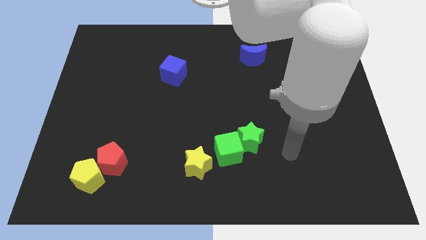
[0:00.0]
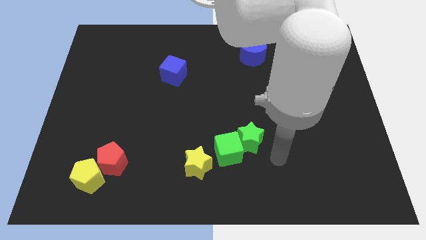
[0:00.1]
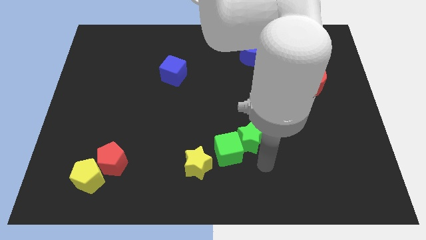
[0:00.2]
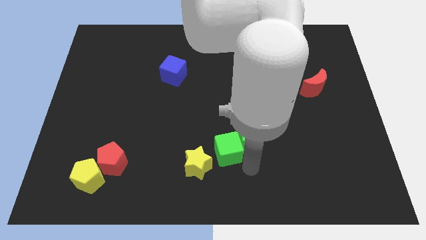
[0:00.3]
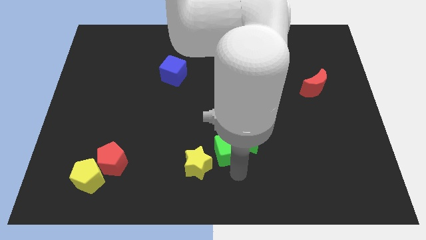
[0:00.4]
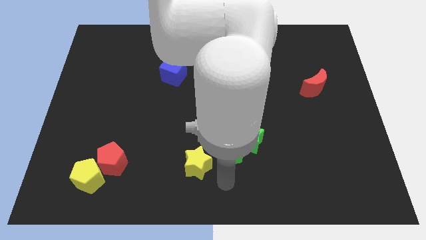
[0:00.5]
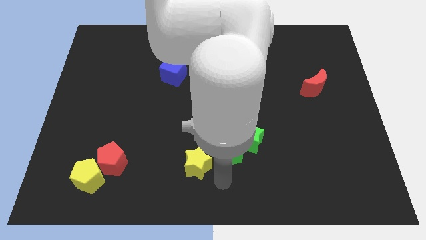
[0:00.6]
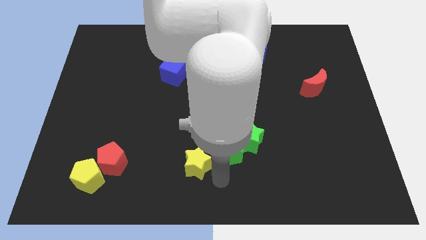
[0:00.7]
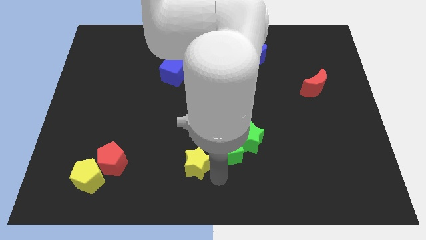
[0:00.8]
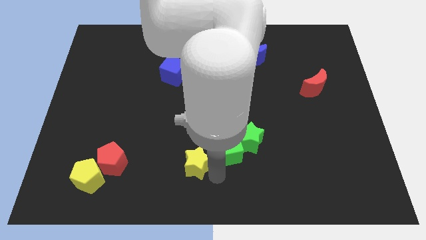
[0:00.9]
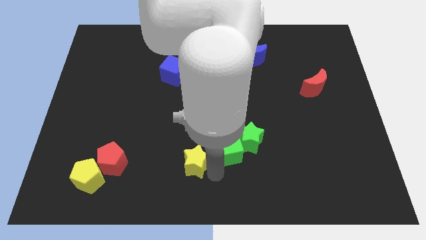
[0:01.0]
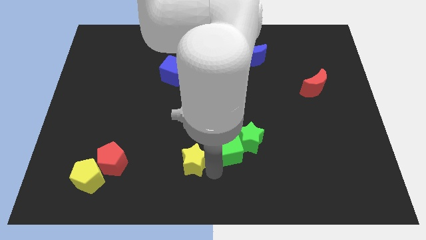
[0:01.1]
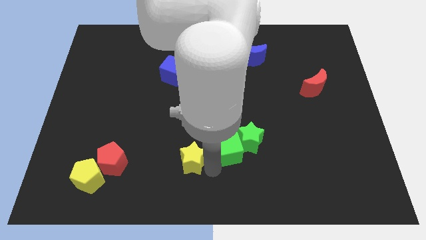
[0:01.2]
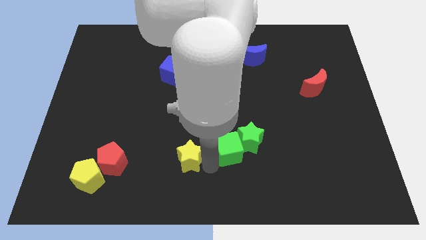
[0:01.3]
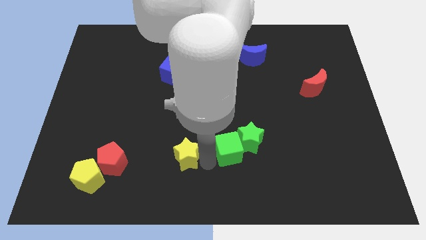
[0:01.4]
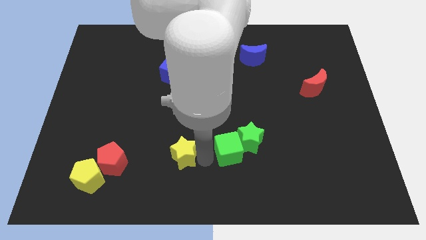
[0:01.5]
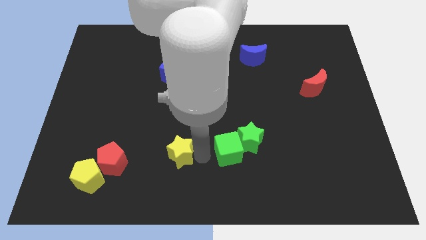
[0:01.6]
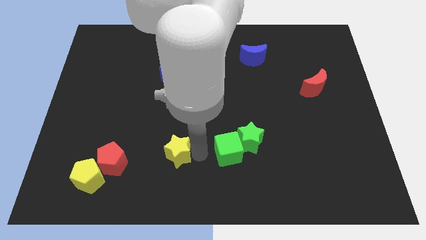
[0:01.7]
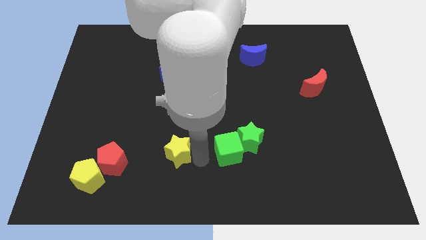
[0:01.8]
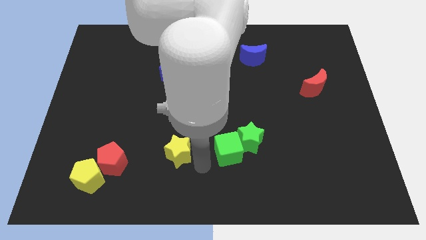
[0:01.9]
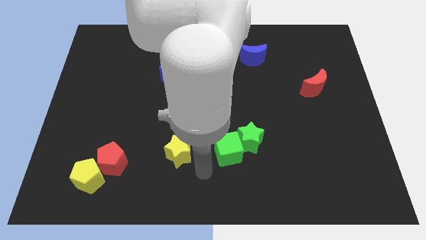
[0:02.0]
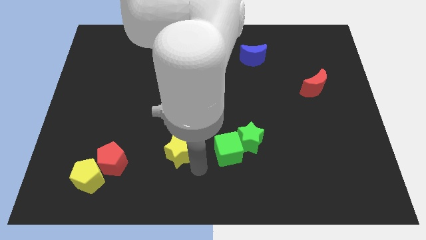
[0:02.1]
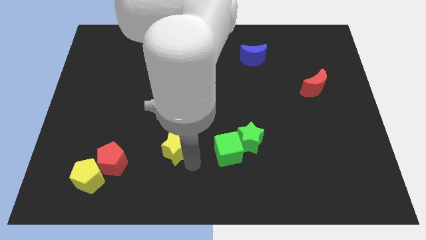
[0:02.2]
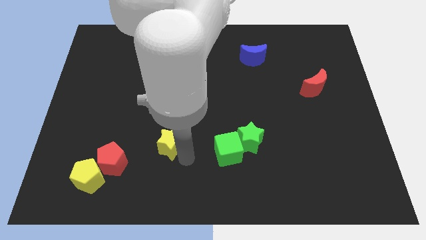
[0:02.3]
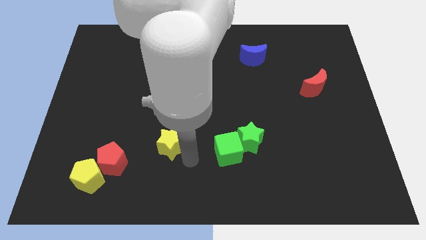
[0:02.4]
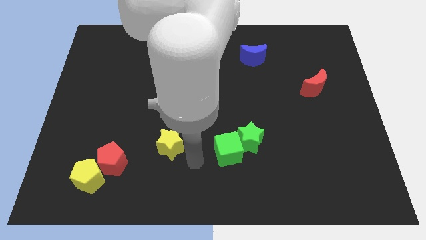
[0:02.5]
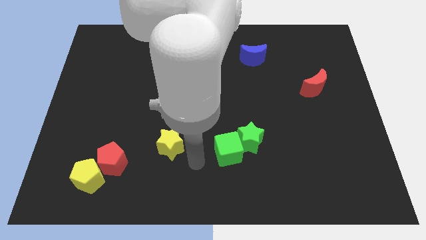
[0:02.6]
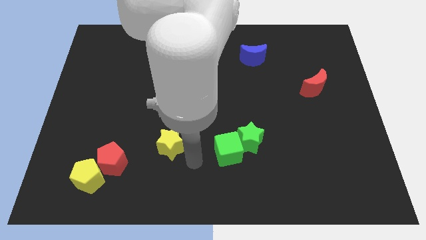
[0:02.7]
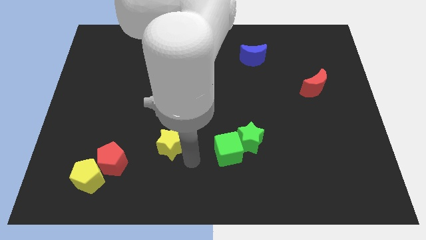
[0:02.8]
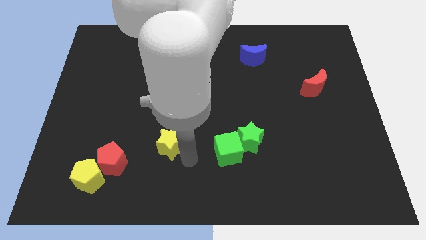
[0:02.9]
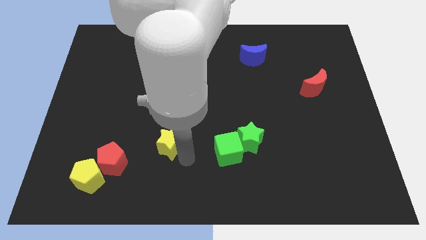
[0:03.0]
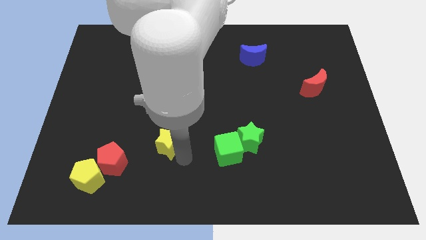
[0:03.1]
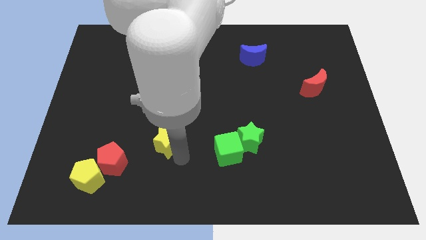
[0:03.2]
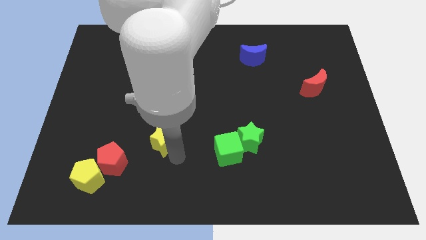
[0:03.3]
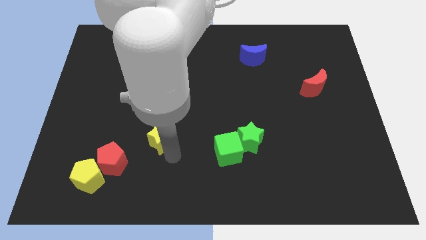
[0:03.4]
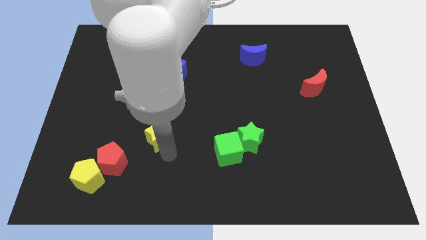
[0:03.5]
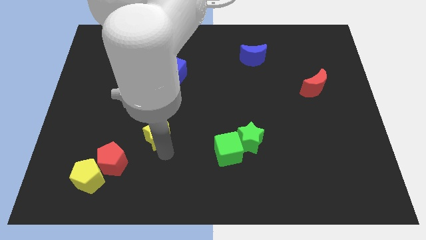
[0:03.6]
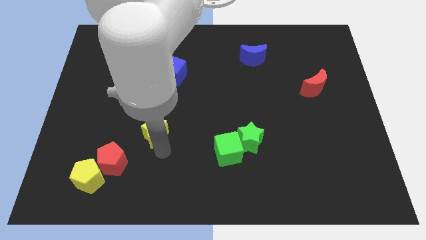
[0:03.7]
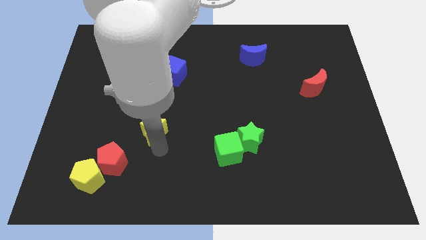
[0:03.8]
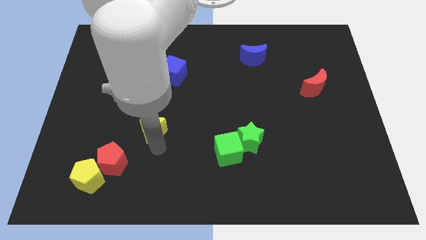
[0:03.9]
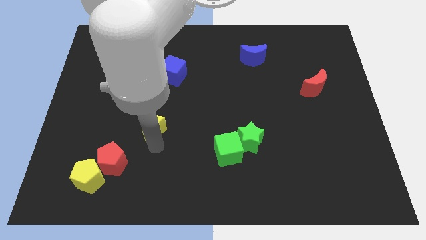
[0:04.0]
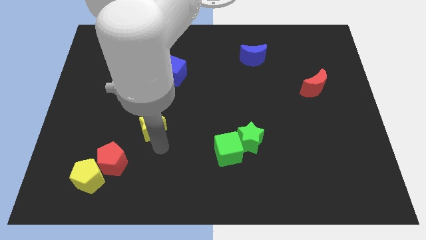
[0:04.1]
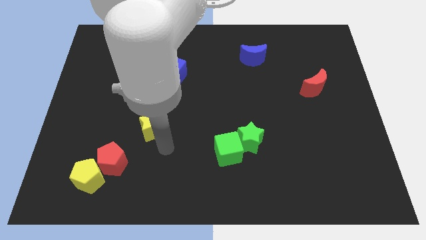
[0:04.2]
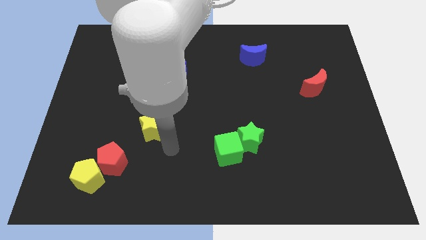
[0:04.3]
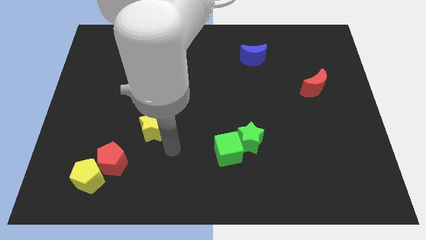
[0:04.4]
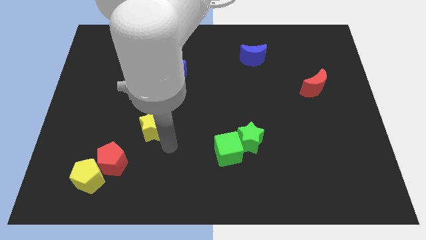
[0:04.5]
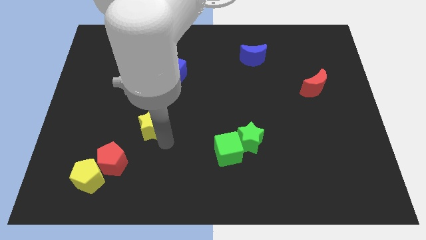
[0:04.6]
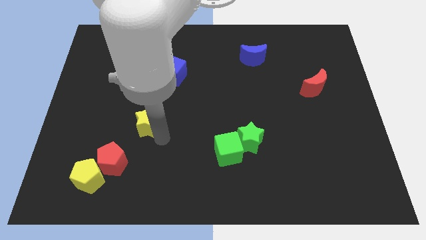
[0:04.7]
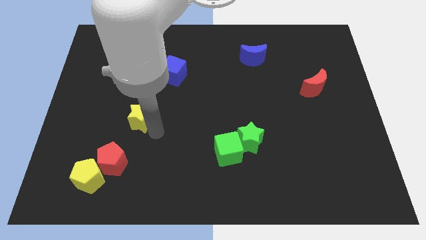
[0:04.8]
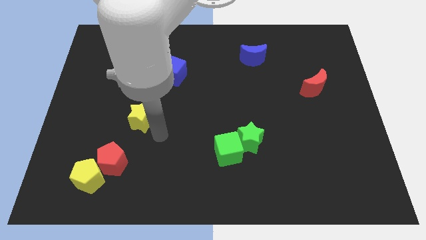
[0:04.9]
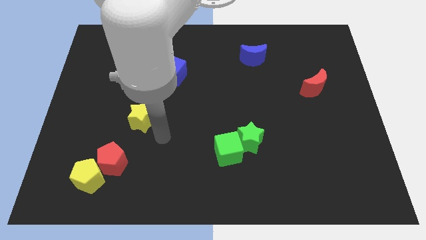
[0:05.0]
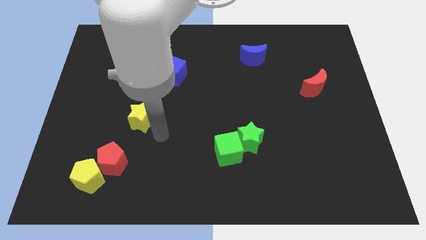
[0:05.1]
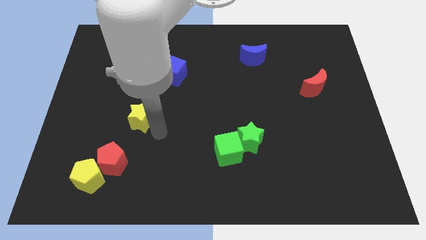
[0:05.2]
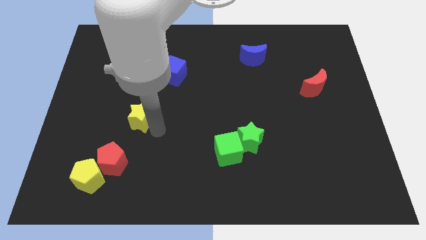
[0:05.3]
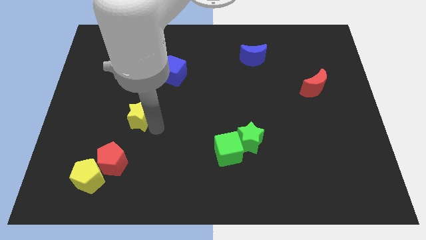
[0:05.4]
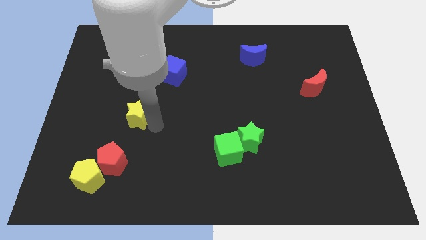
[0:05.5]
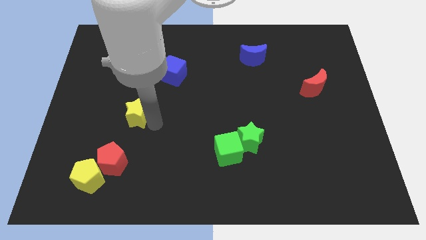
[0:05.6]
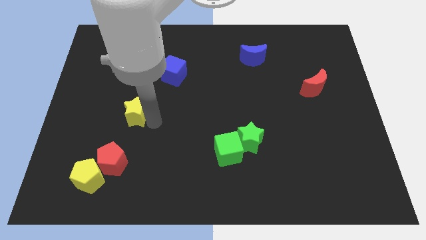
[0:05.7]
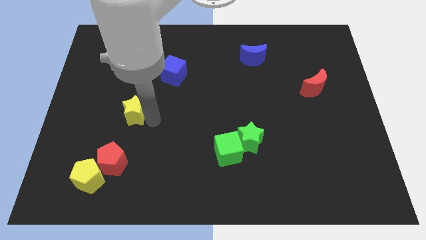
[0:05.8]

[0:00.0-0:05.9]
slide the yellow star diagonally upwards and to the left

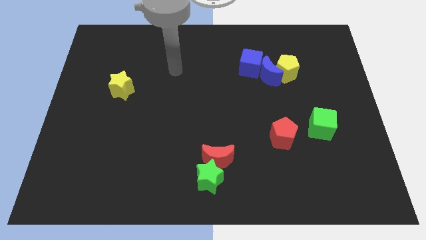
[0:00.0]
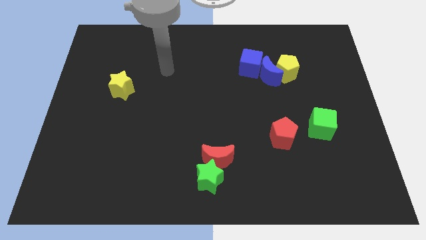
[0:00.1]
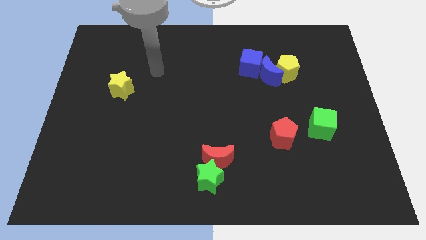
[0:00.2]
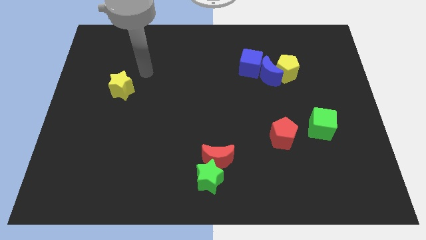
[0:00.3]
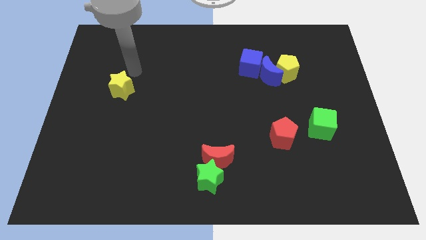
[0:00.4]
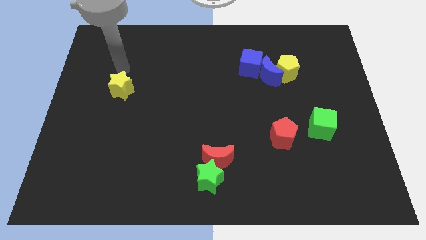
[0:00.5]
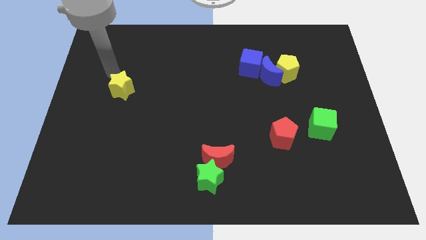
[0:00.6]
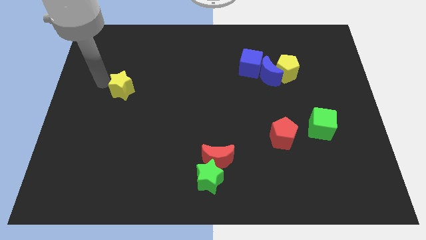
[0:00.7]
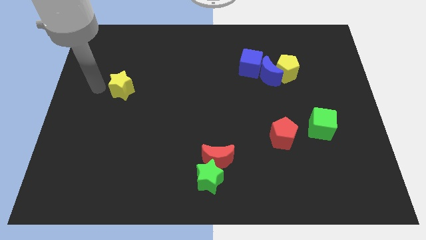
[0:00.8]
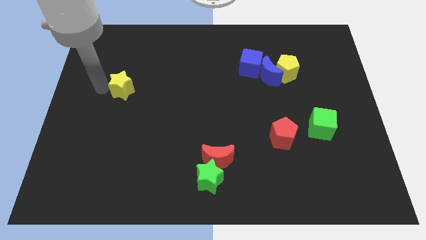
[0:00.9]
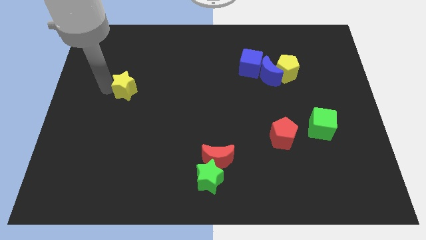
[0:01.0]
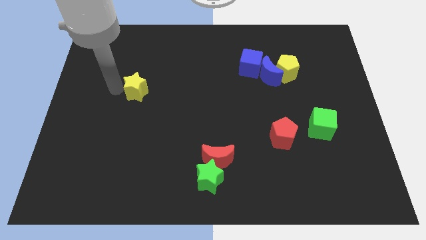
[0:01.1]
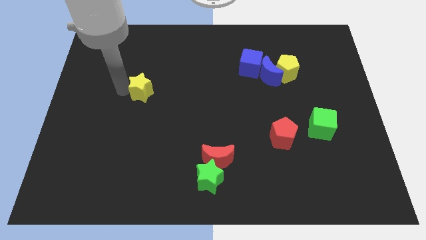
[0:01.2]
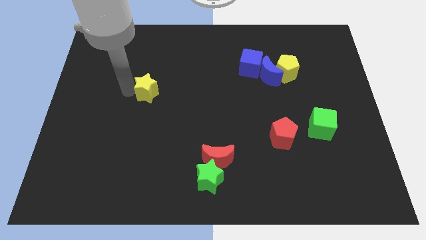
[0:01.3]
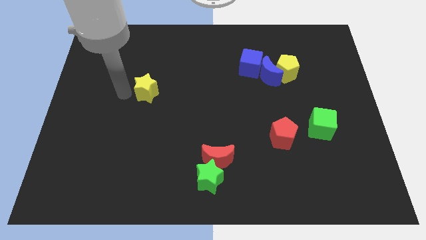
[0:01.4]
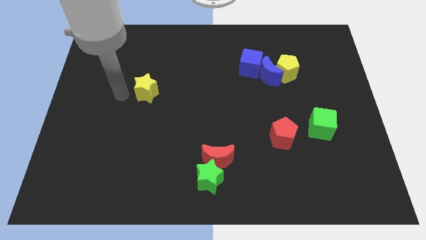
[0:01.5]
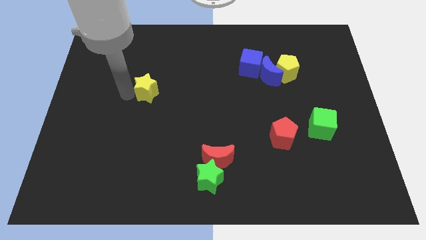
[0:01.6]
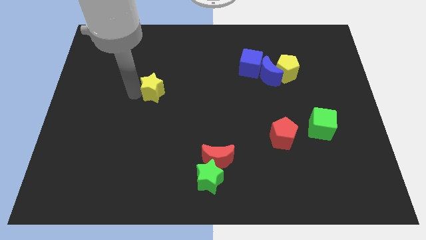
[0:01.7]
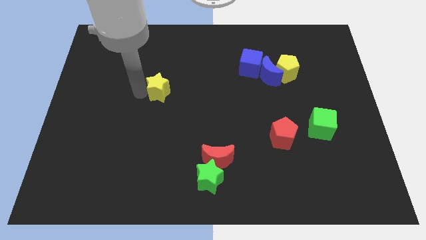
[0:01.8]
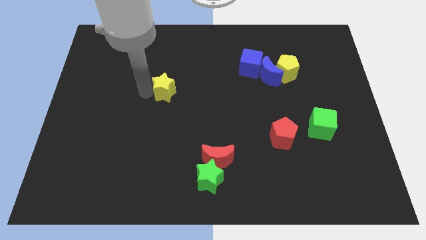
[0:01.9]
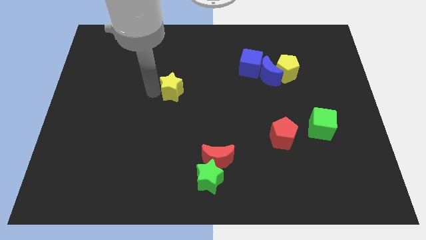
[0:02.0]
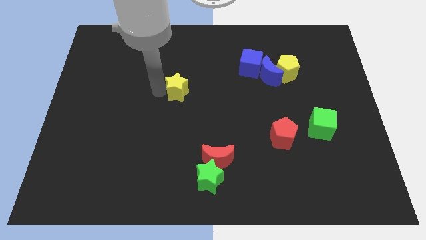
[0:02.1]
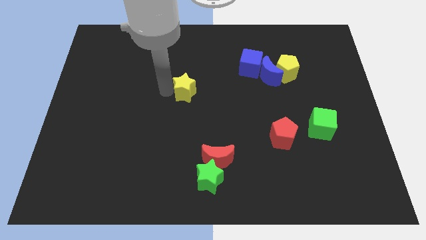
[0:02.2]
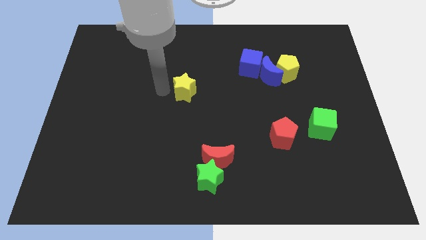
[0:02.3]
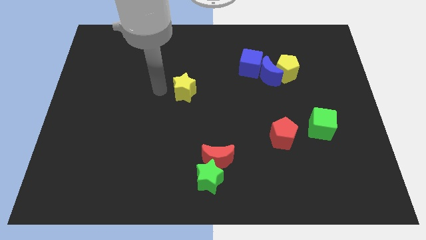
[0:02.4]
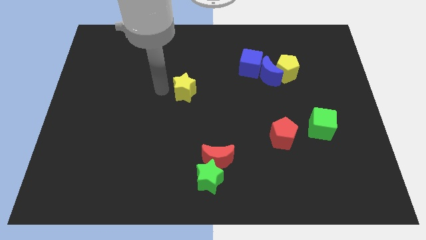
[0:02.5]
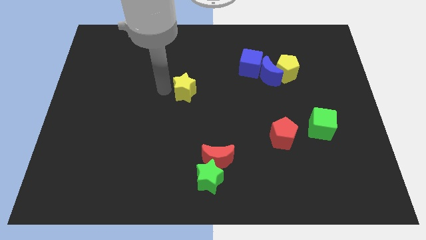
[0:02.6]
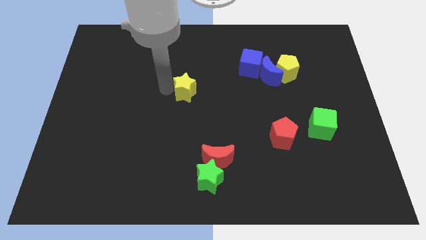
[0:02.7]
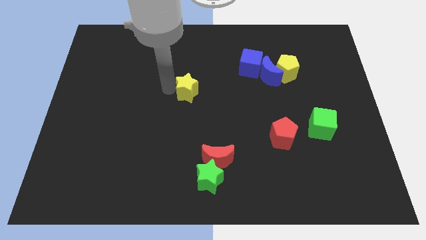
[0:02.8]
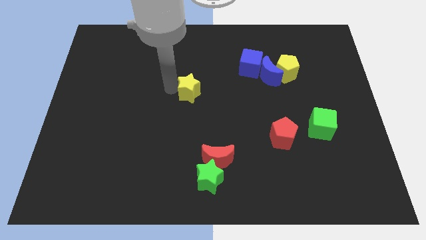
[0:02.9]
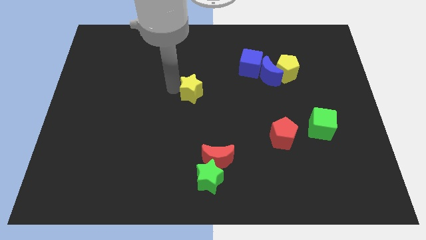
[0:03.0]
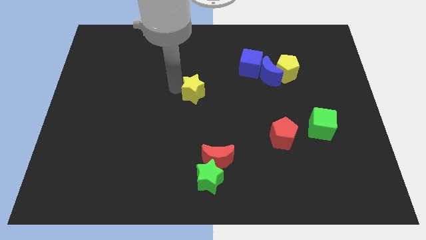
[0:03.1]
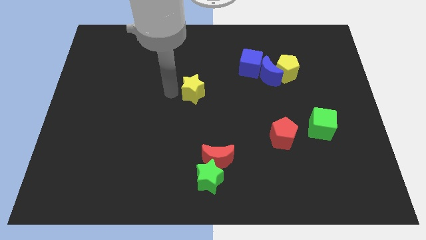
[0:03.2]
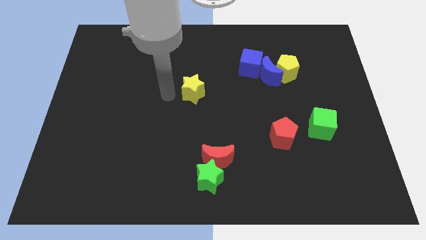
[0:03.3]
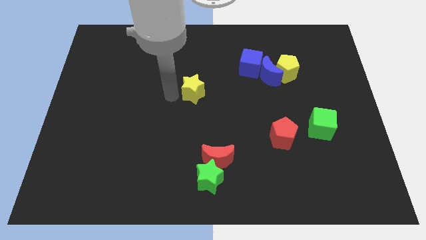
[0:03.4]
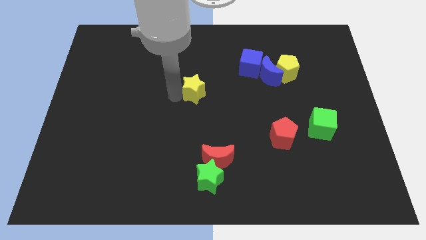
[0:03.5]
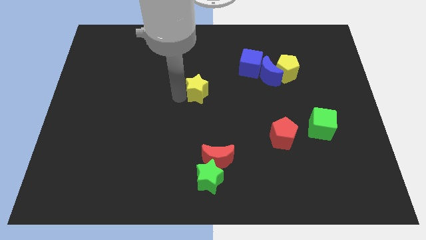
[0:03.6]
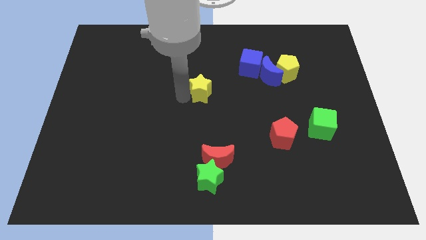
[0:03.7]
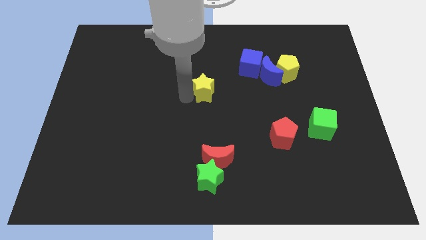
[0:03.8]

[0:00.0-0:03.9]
move the yellow star to the right
